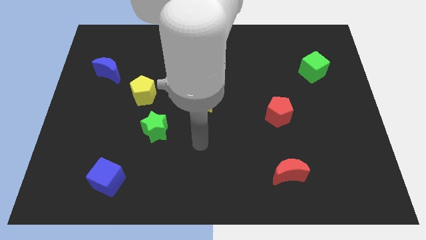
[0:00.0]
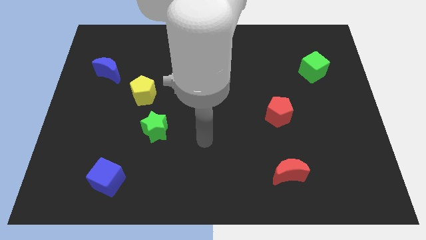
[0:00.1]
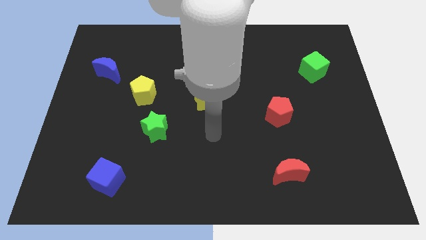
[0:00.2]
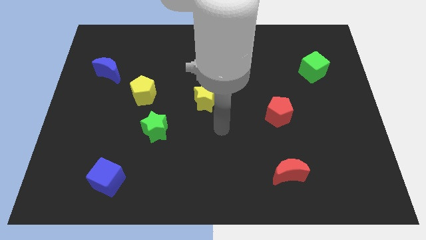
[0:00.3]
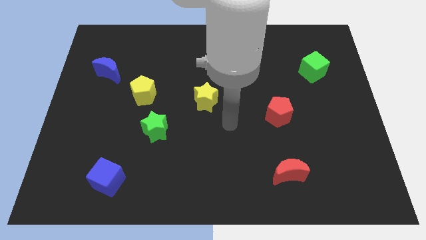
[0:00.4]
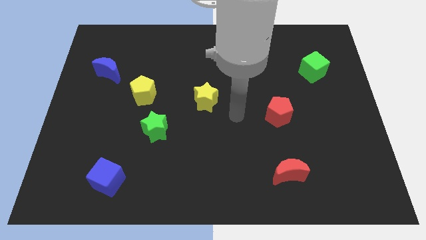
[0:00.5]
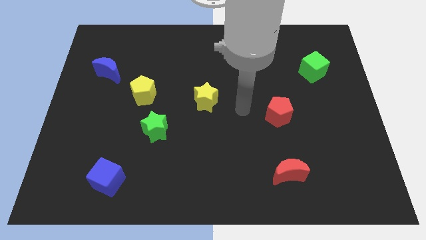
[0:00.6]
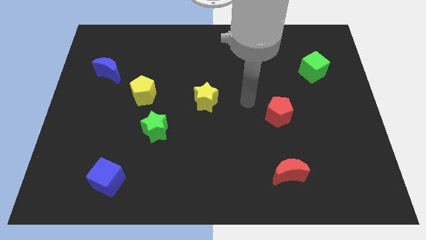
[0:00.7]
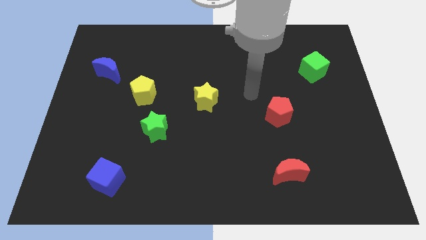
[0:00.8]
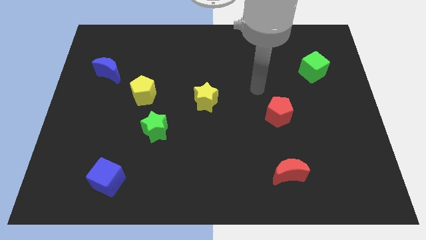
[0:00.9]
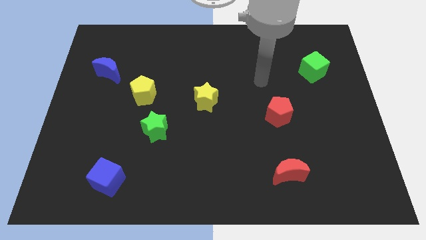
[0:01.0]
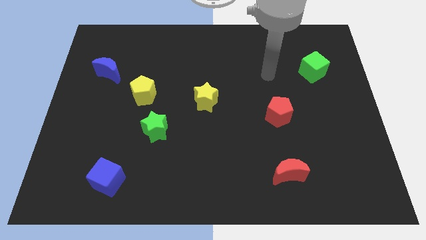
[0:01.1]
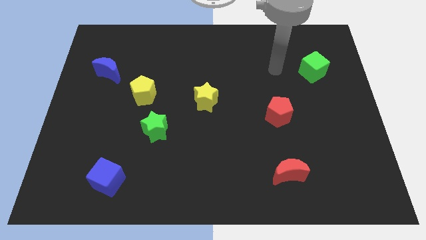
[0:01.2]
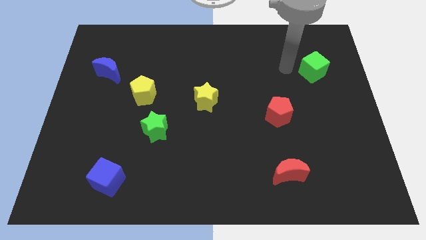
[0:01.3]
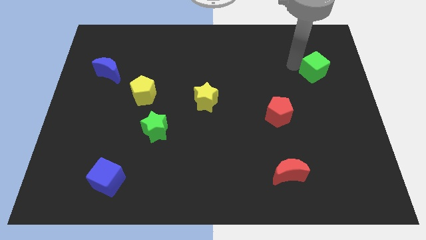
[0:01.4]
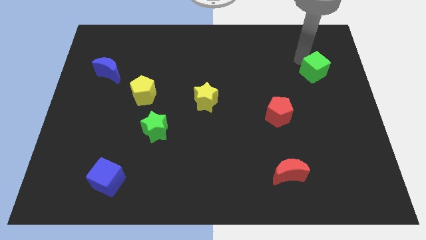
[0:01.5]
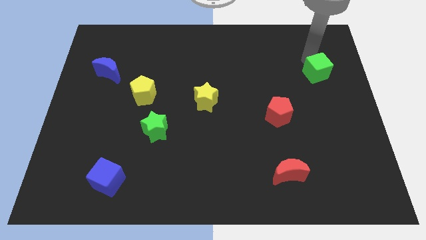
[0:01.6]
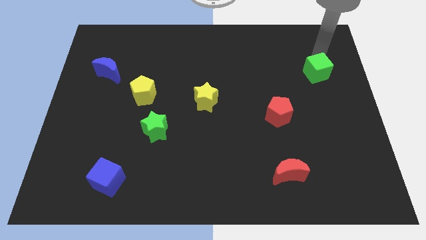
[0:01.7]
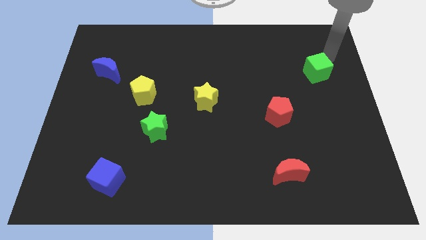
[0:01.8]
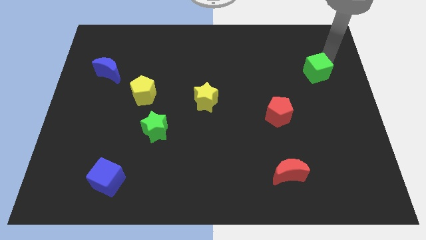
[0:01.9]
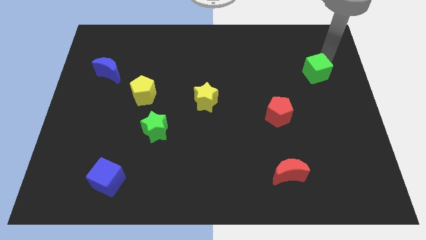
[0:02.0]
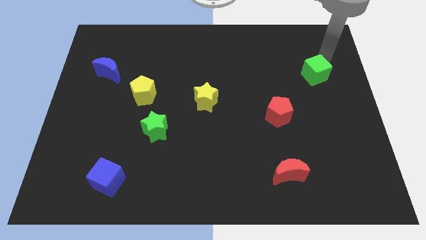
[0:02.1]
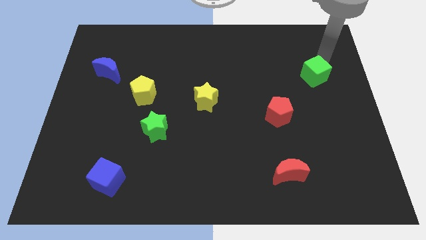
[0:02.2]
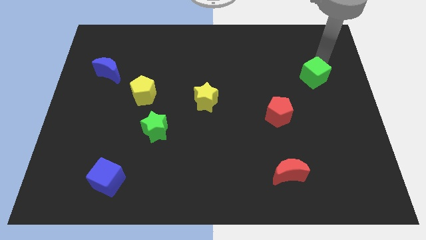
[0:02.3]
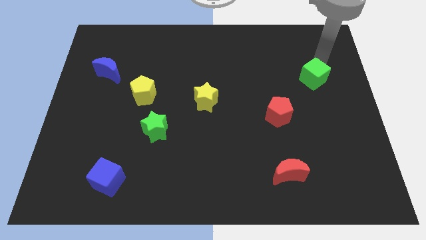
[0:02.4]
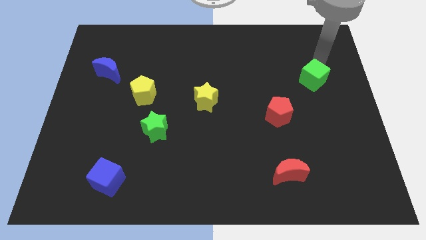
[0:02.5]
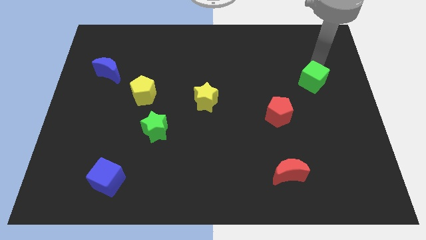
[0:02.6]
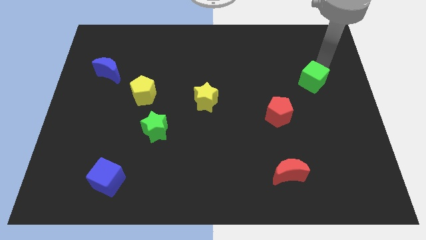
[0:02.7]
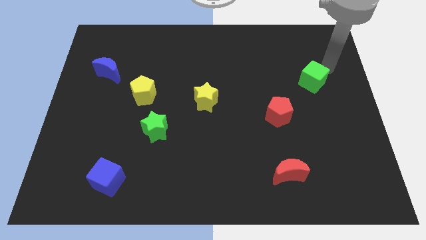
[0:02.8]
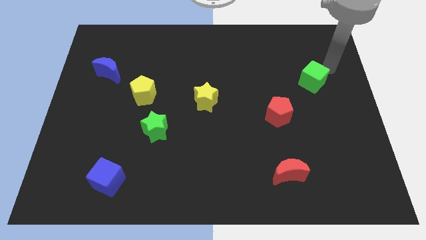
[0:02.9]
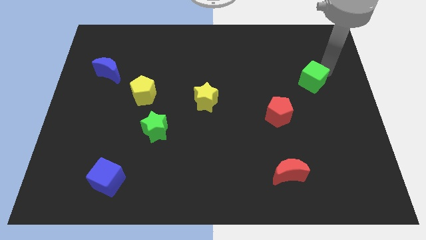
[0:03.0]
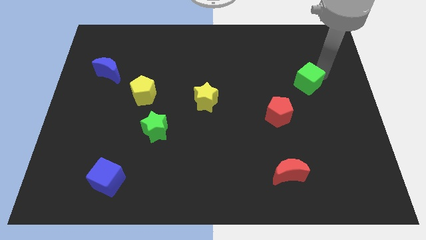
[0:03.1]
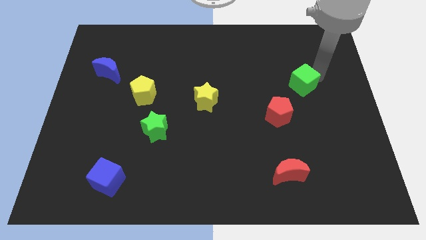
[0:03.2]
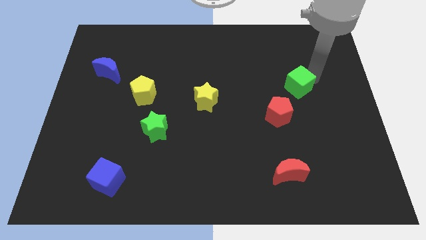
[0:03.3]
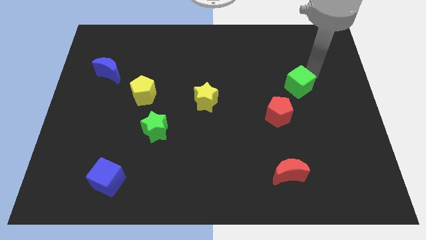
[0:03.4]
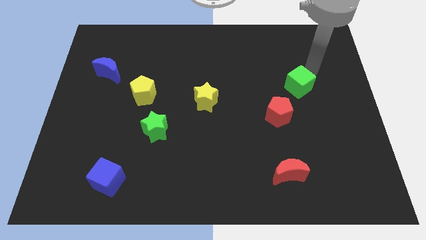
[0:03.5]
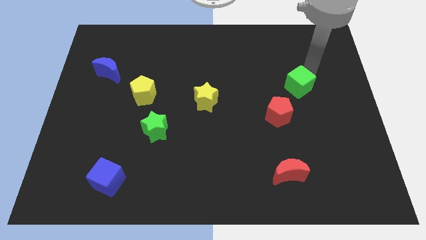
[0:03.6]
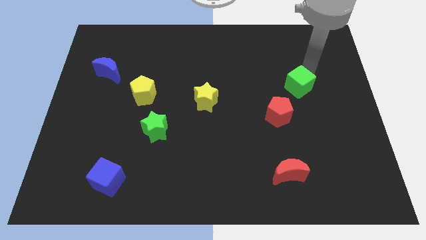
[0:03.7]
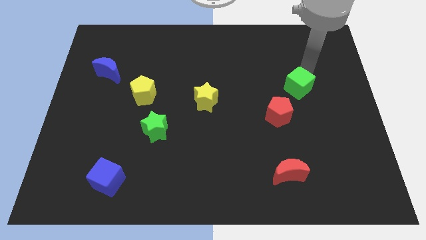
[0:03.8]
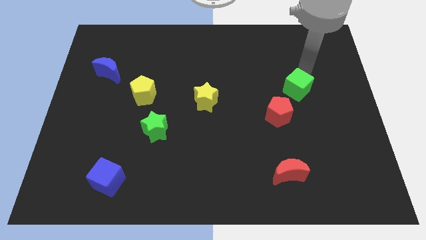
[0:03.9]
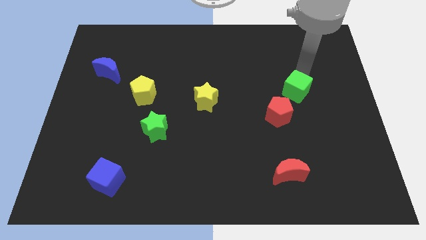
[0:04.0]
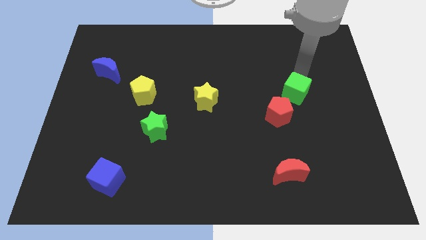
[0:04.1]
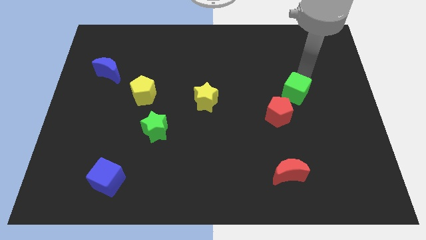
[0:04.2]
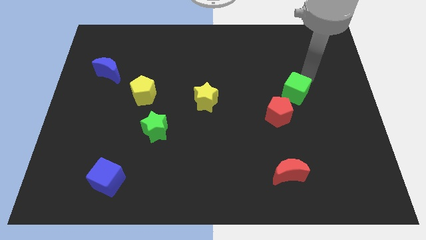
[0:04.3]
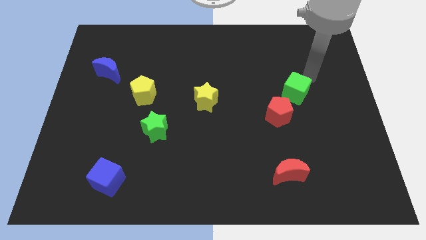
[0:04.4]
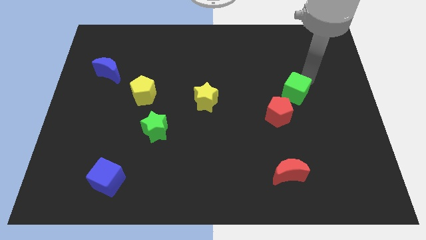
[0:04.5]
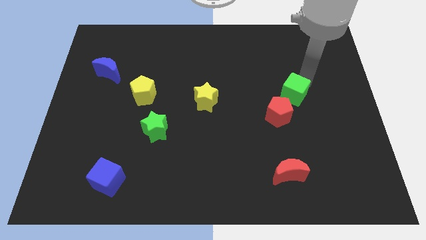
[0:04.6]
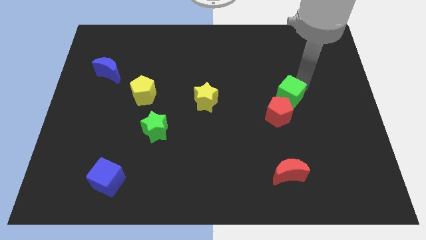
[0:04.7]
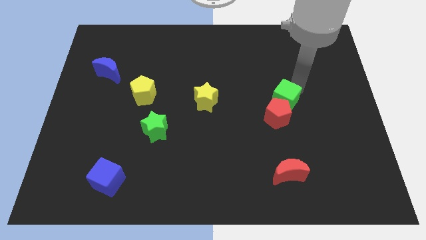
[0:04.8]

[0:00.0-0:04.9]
put the green cube next to the red pentagon

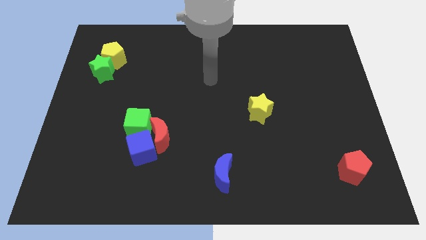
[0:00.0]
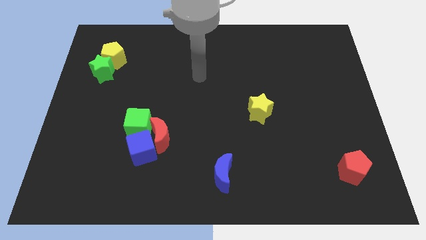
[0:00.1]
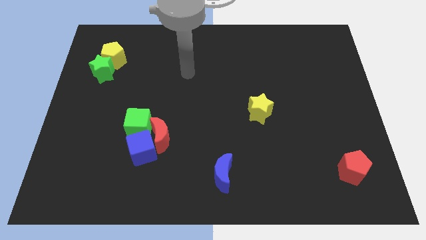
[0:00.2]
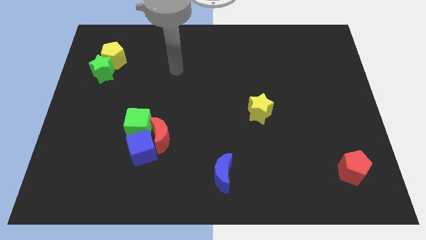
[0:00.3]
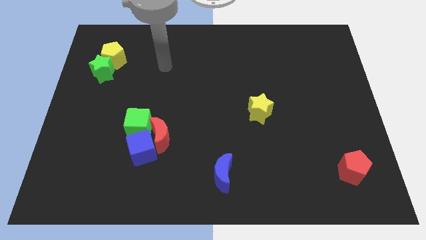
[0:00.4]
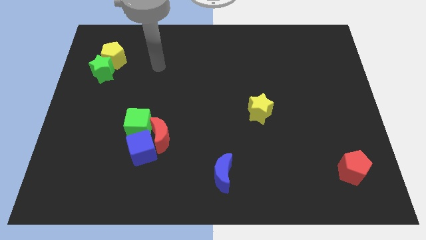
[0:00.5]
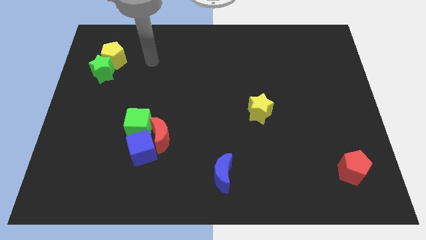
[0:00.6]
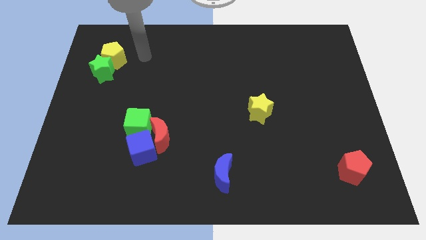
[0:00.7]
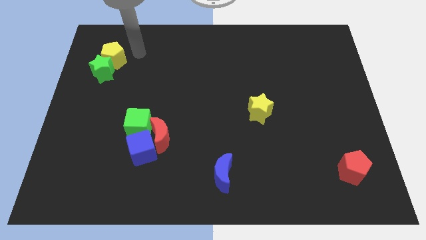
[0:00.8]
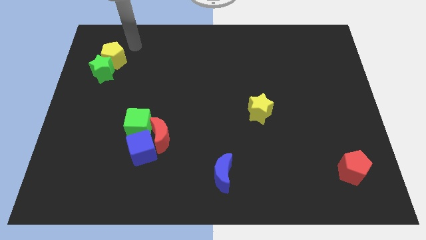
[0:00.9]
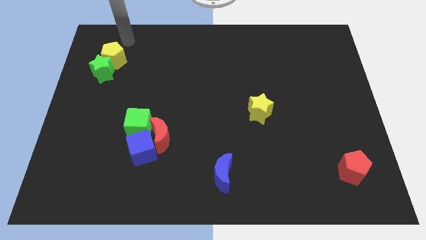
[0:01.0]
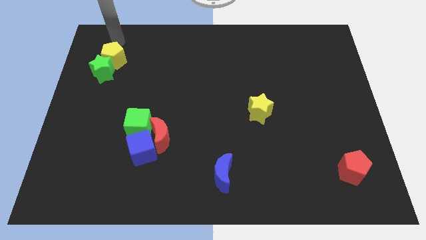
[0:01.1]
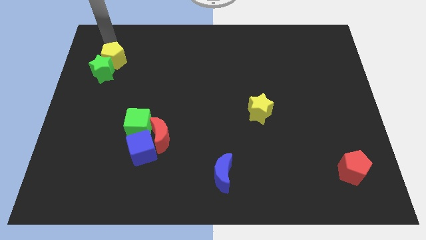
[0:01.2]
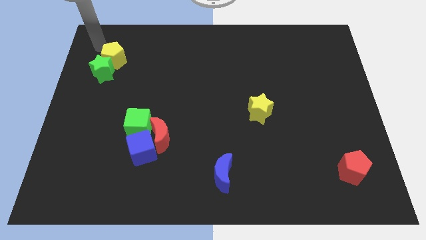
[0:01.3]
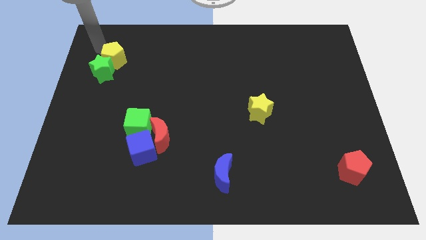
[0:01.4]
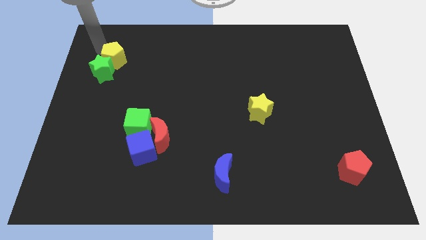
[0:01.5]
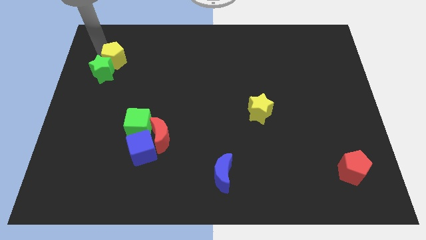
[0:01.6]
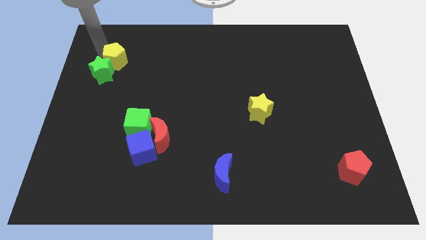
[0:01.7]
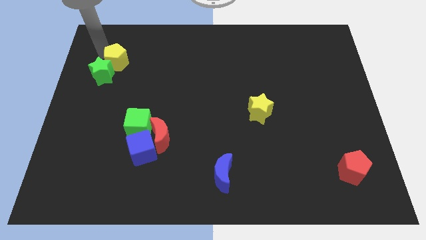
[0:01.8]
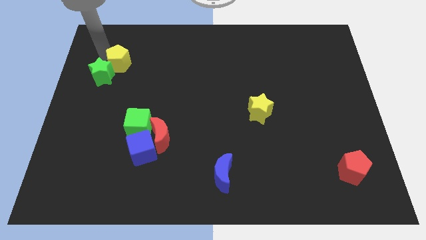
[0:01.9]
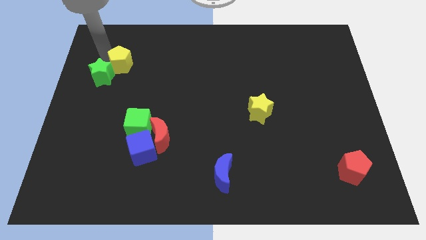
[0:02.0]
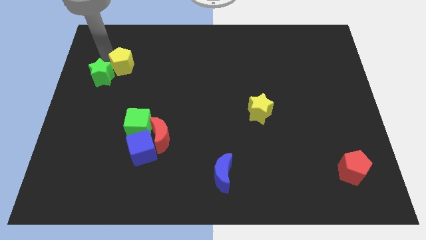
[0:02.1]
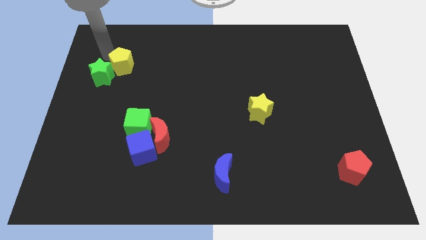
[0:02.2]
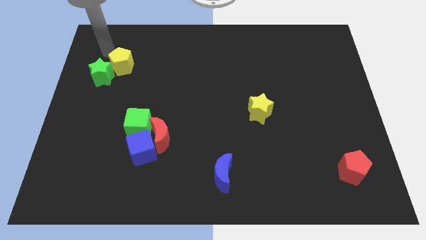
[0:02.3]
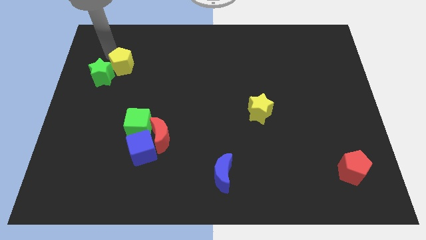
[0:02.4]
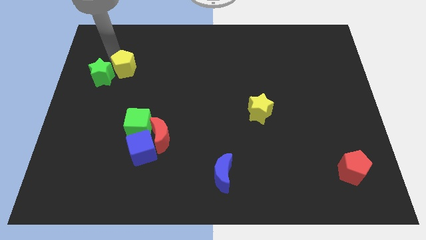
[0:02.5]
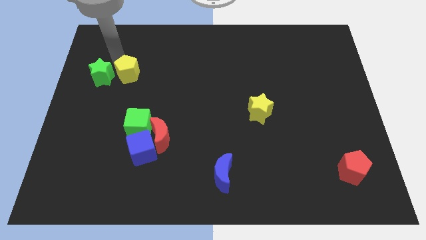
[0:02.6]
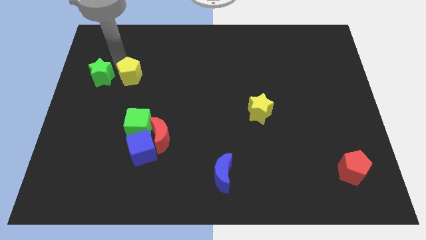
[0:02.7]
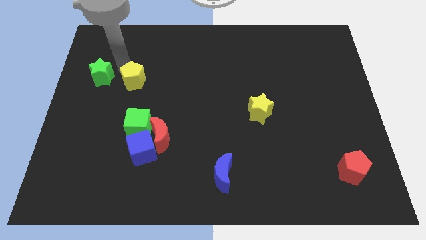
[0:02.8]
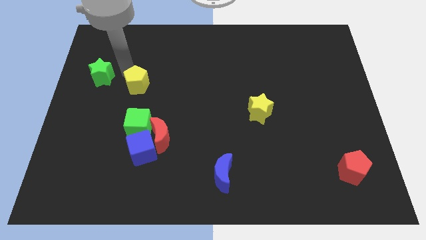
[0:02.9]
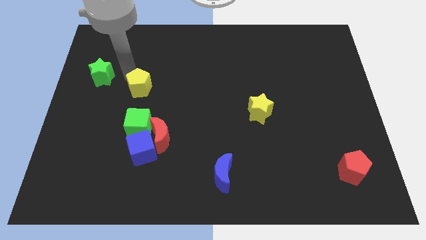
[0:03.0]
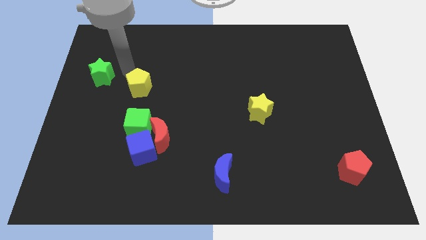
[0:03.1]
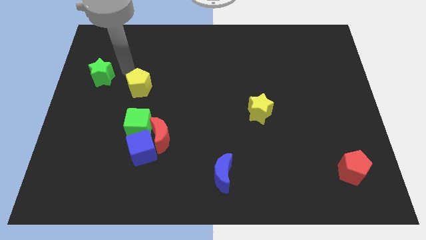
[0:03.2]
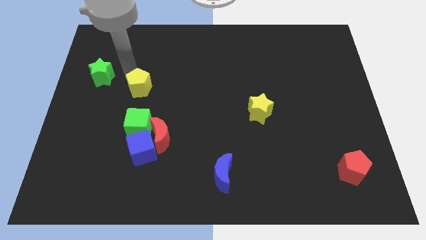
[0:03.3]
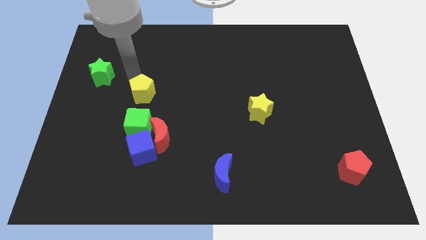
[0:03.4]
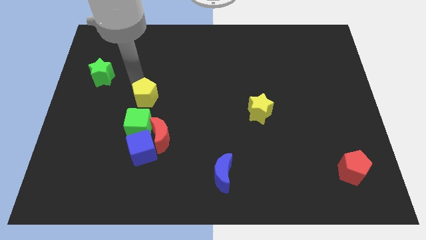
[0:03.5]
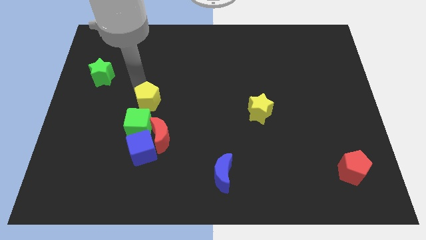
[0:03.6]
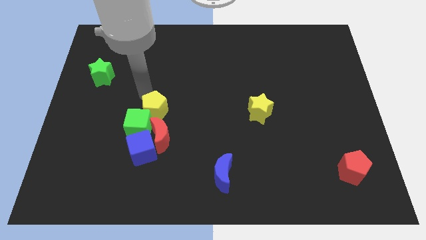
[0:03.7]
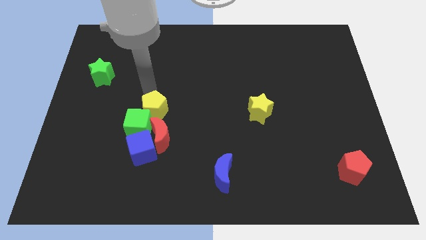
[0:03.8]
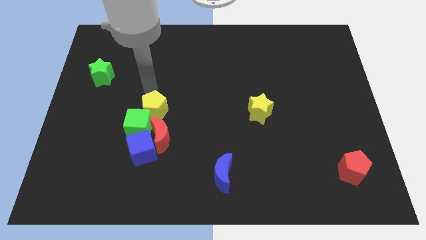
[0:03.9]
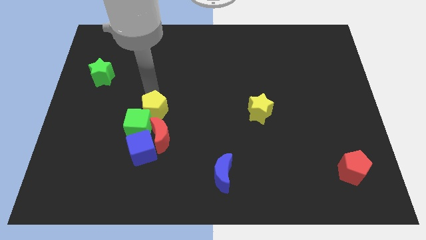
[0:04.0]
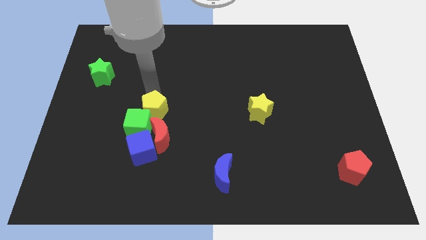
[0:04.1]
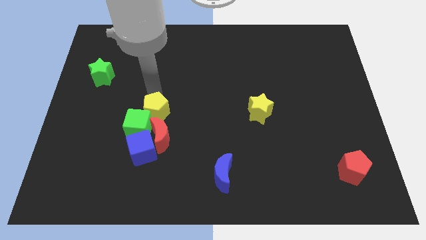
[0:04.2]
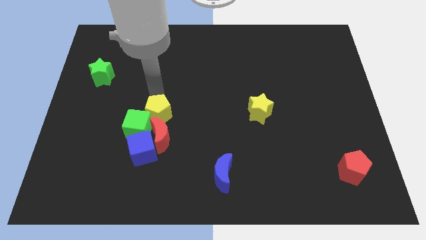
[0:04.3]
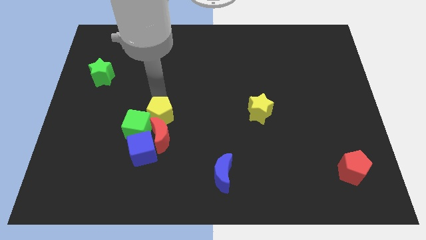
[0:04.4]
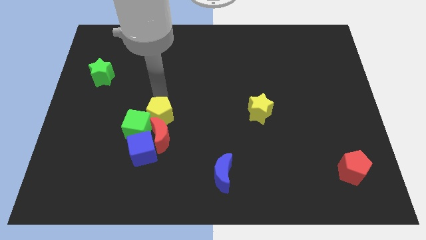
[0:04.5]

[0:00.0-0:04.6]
slide the yellow pentagon close to the red moon
